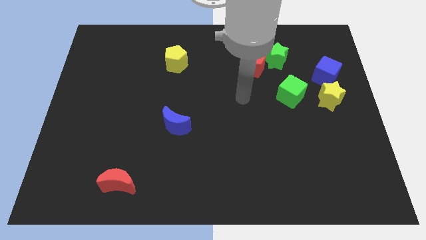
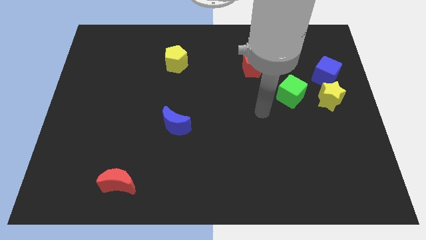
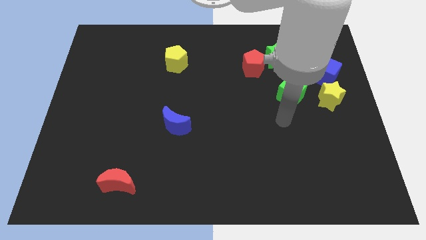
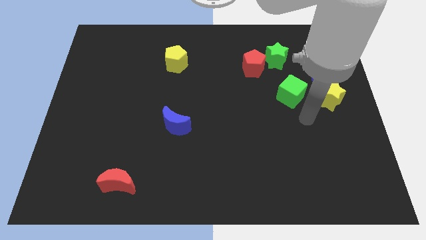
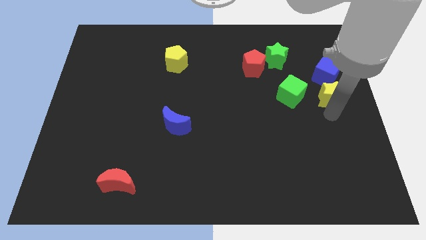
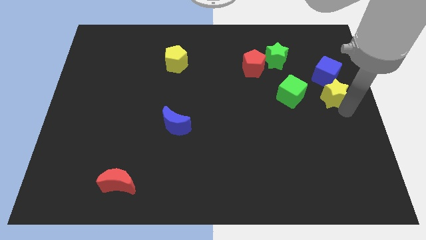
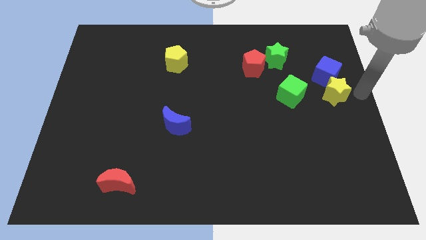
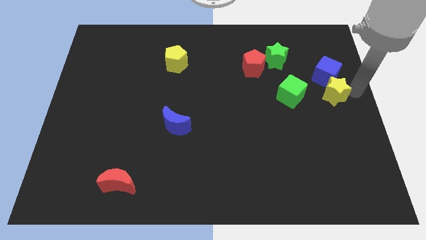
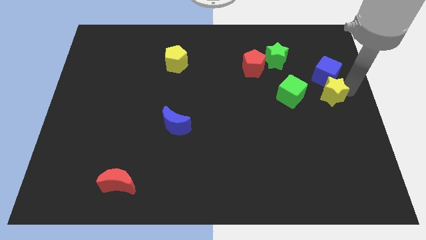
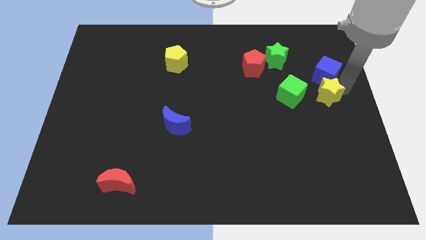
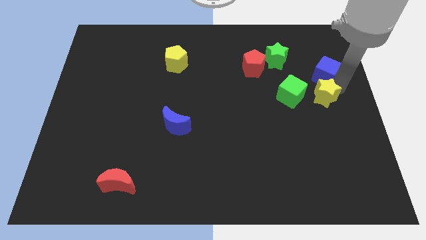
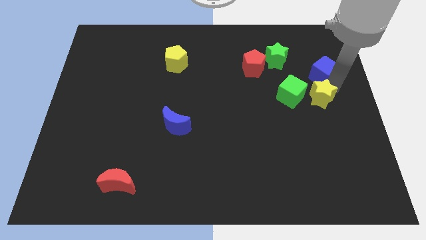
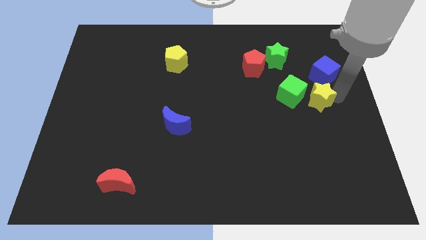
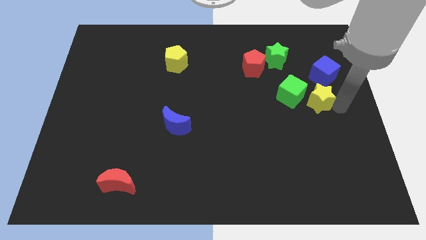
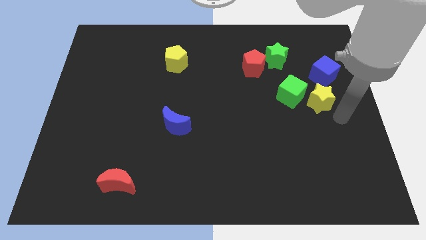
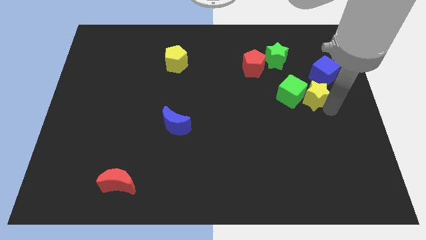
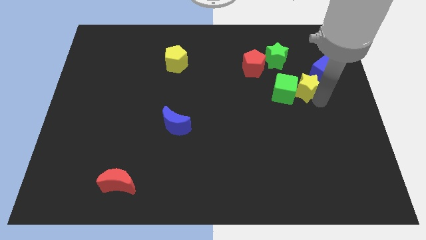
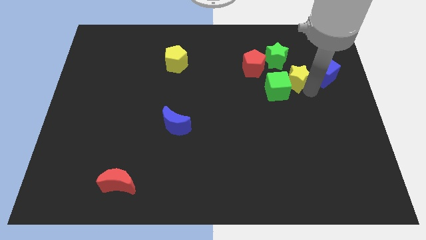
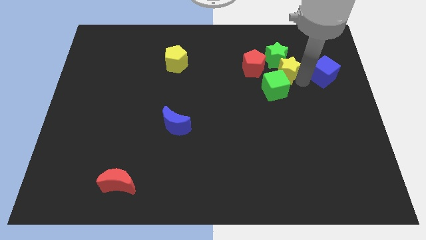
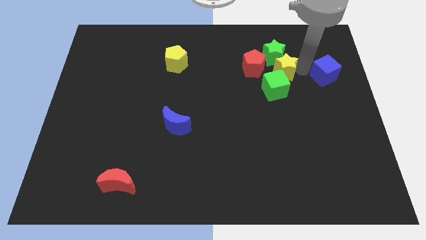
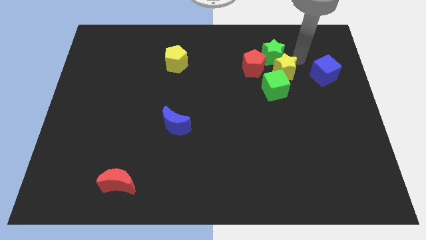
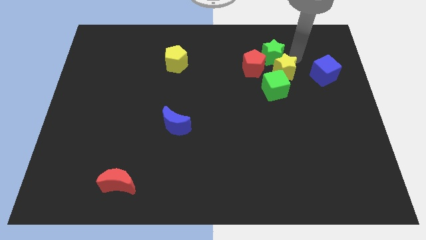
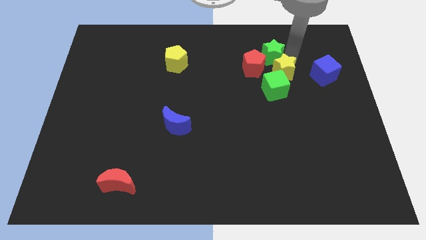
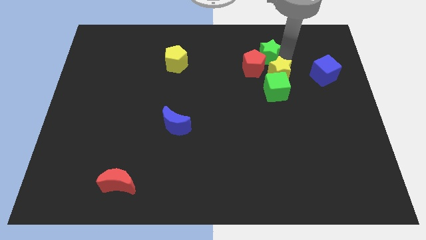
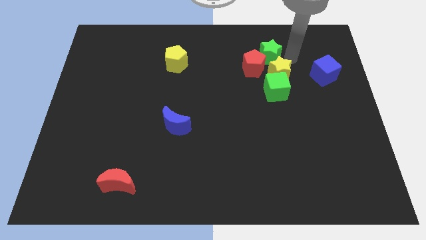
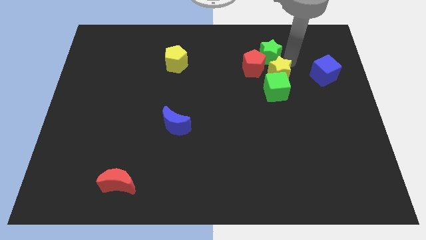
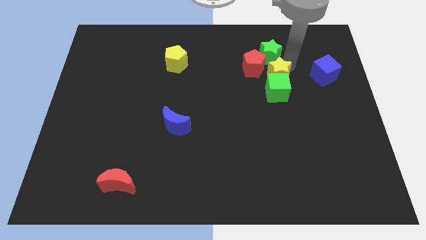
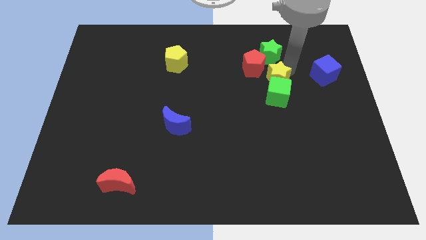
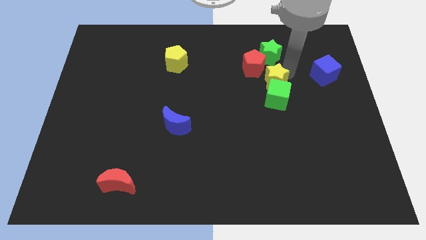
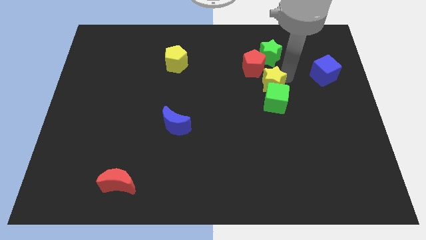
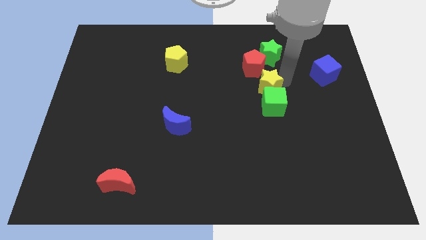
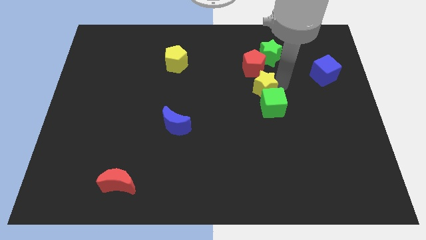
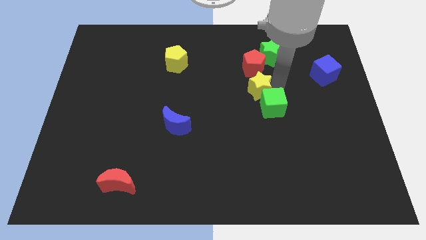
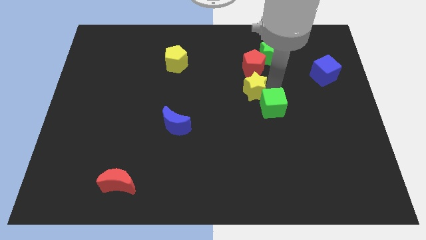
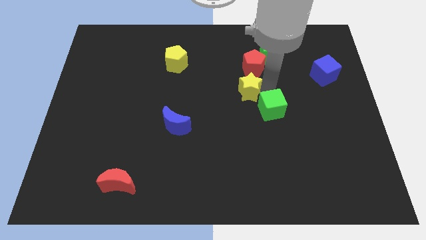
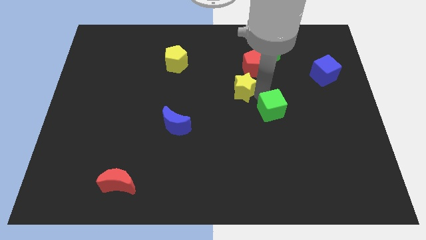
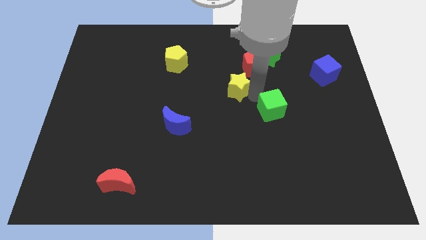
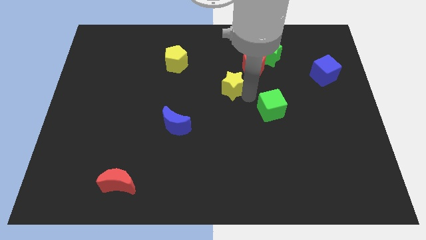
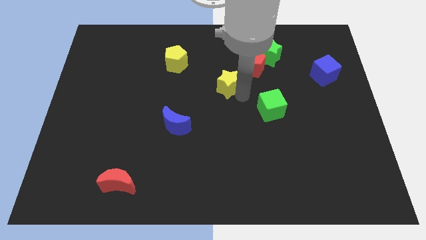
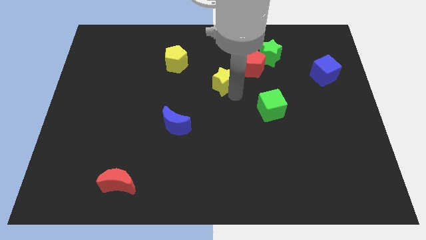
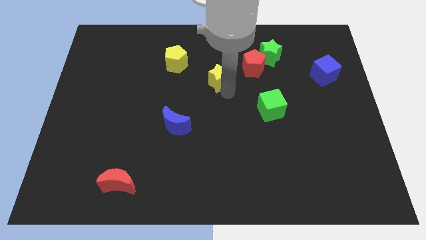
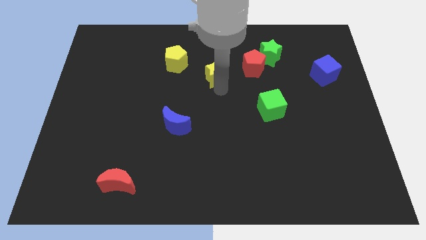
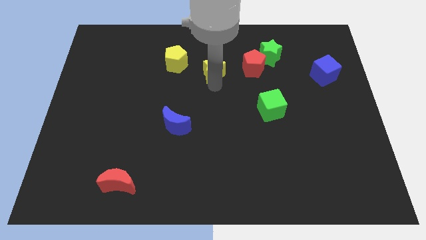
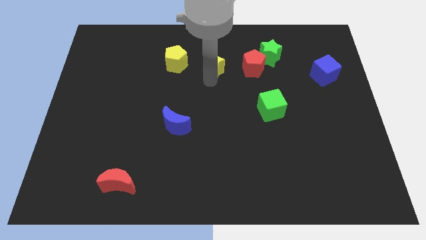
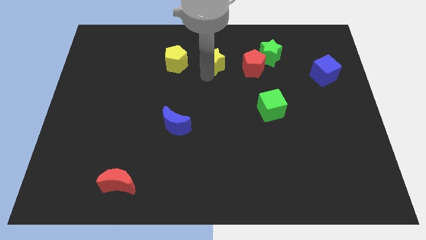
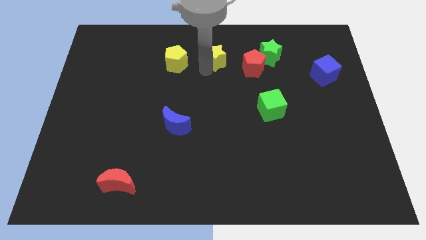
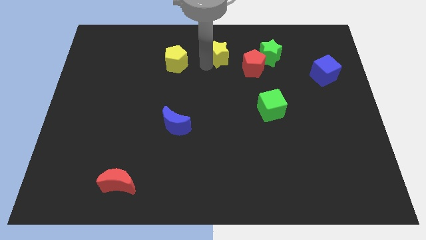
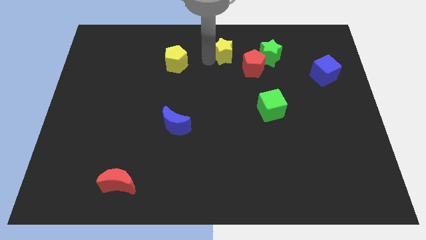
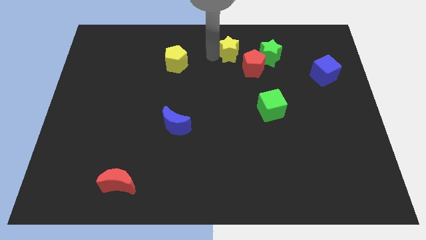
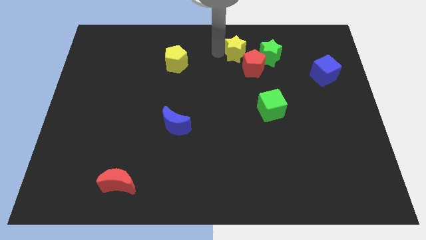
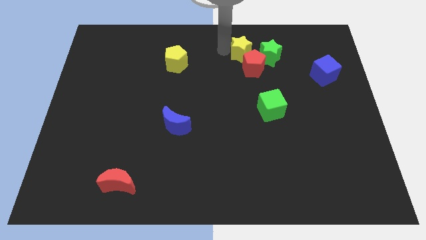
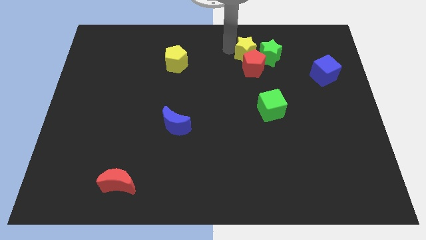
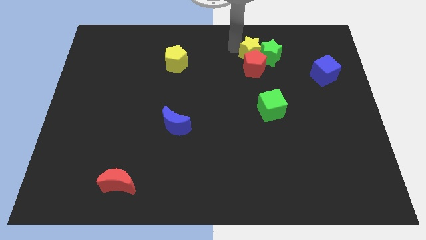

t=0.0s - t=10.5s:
slide the yellow star to the bottom left side of the green star

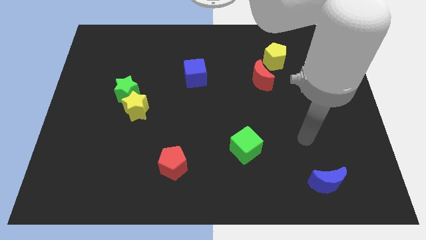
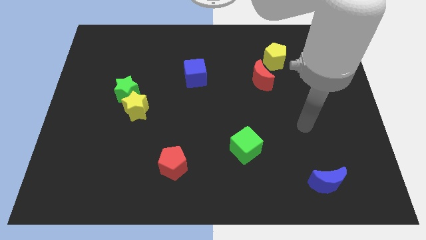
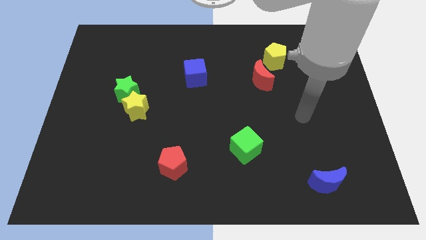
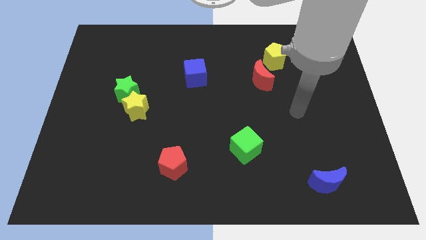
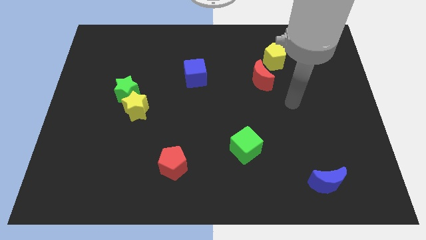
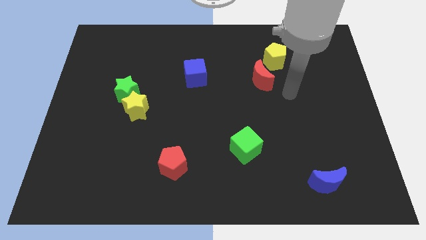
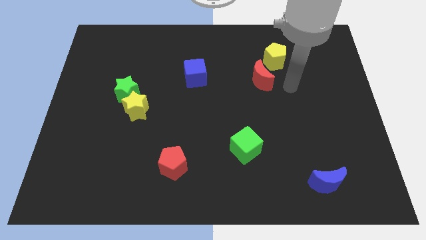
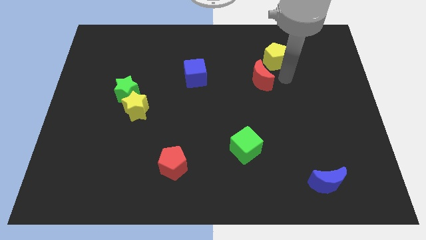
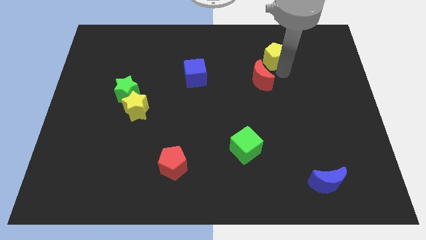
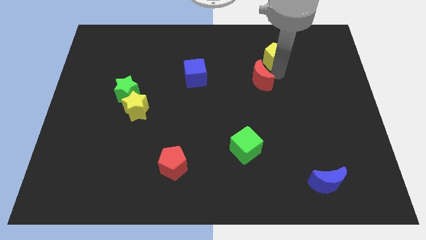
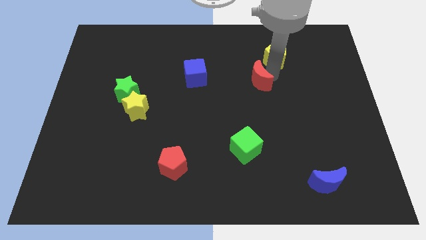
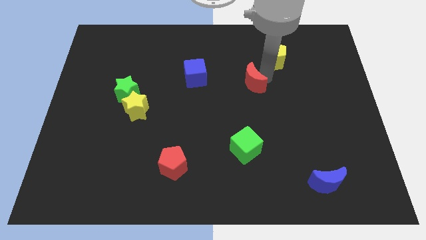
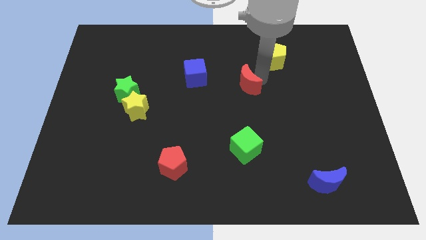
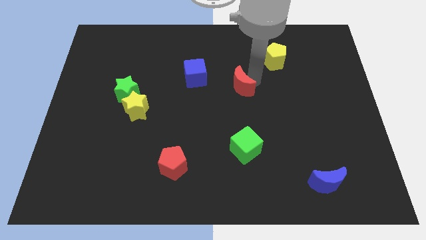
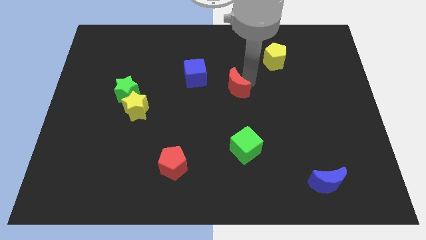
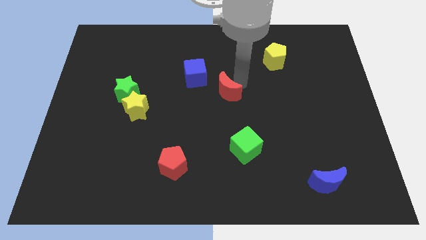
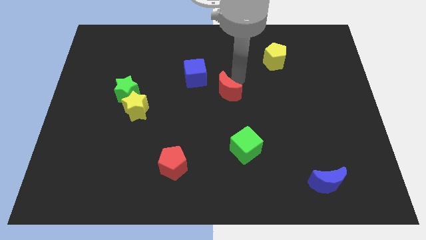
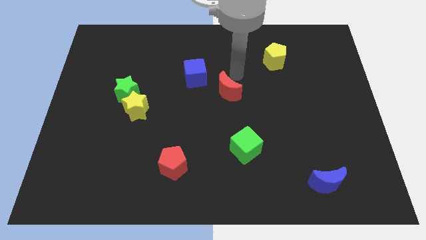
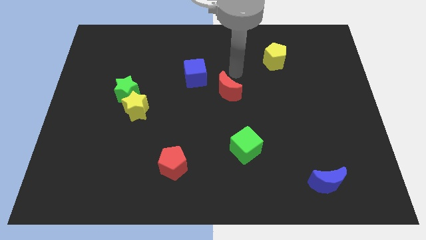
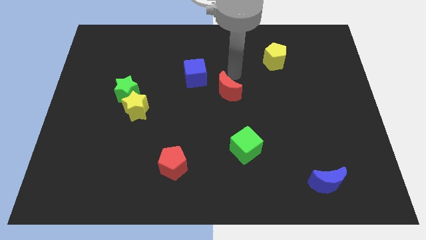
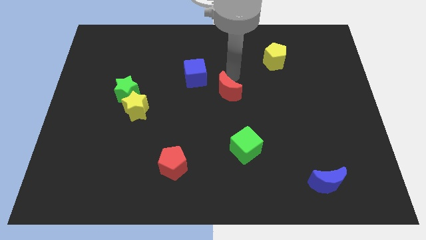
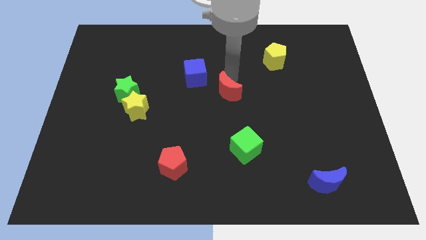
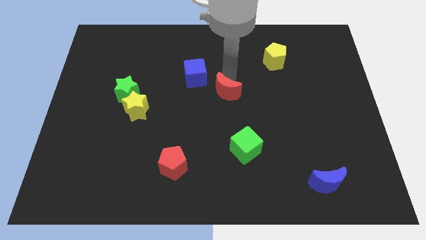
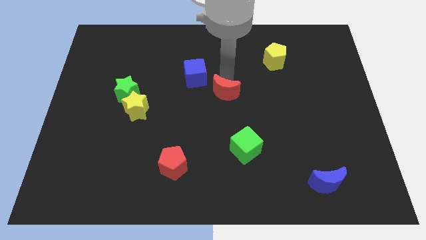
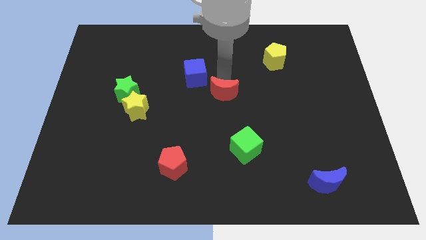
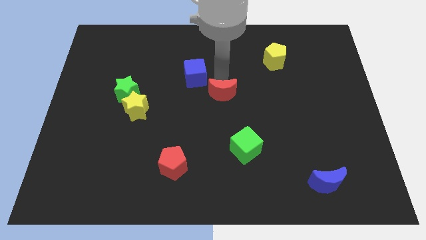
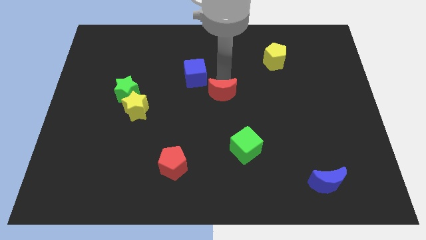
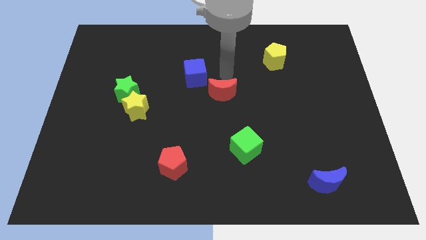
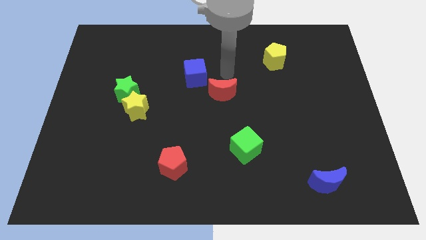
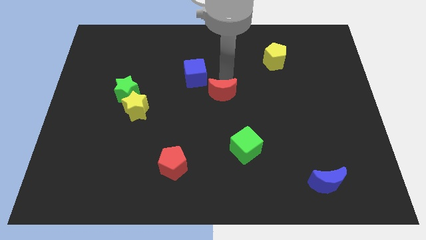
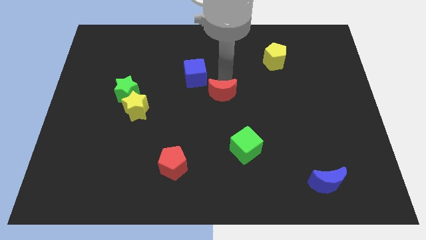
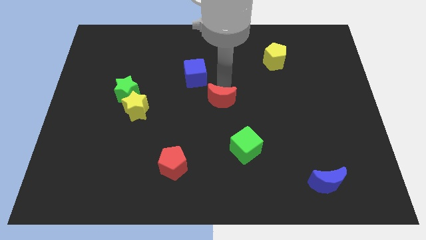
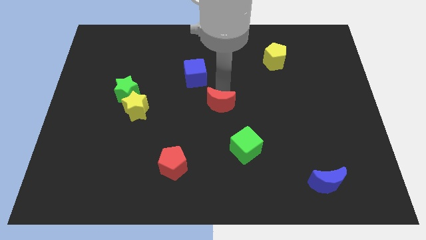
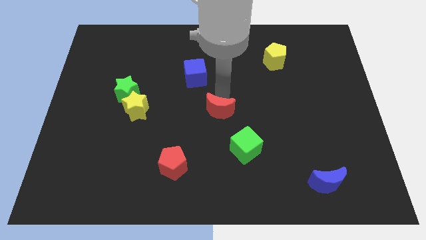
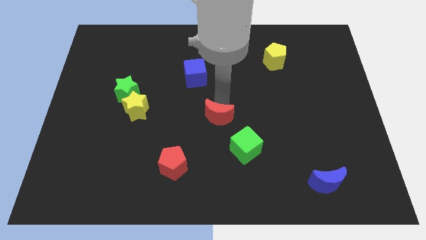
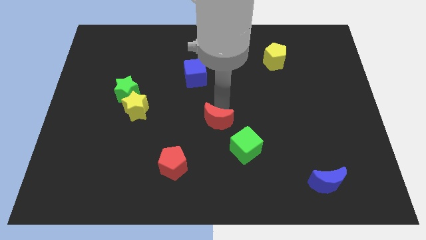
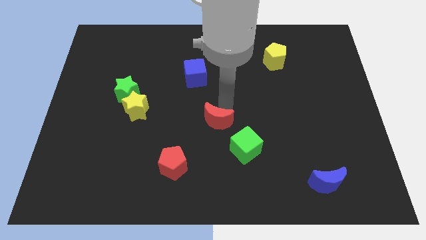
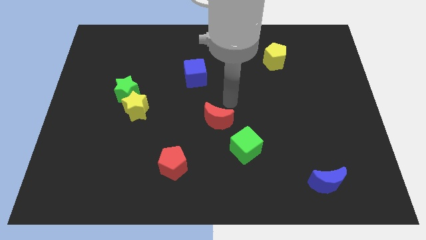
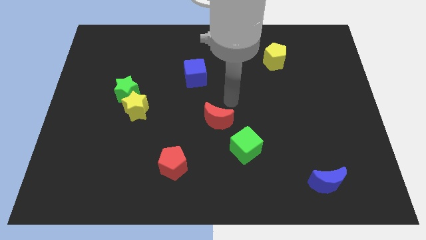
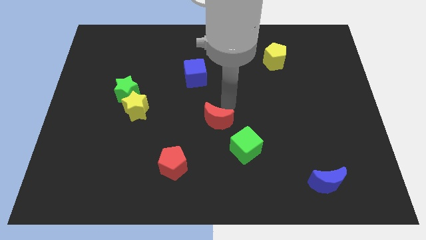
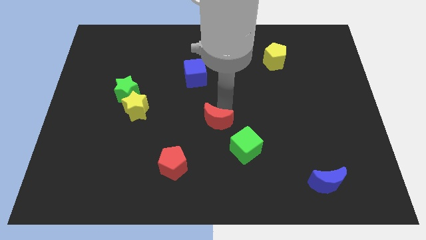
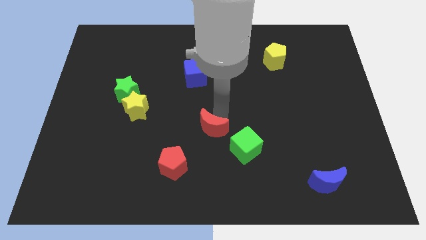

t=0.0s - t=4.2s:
put the red moon diagonally up and to the right of the red pentagon
